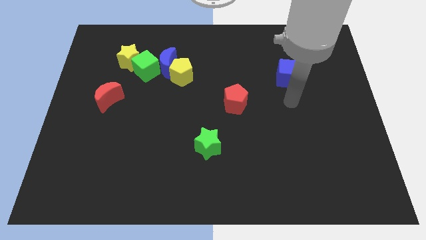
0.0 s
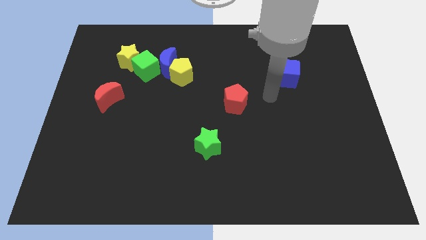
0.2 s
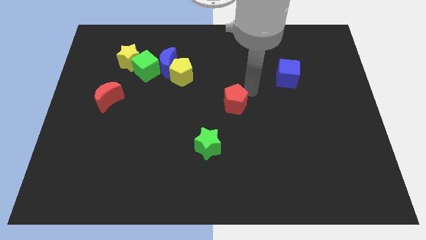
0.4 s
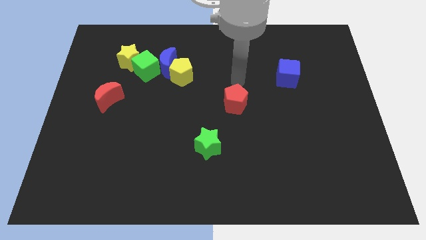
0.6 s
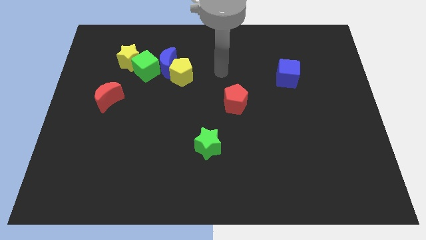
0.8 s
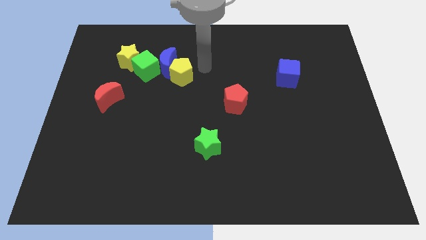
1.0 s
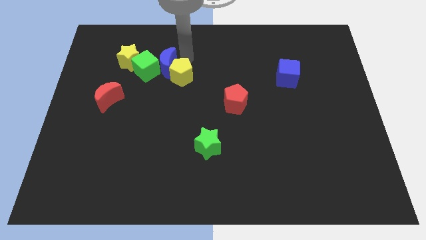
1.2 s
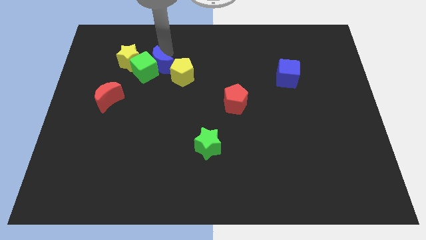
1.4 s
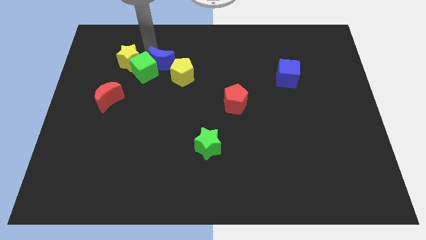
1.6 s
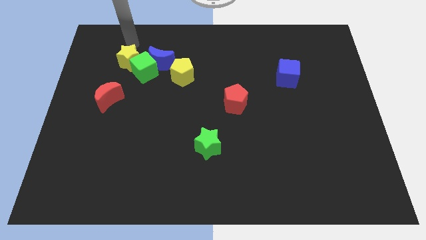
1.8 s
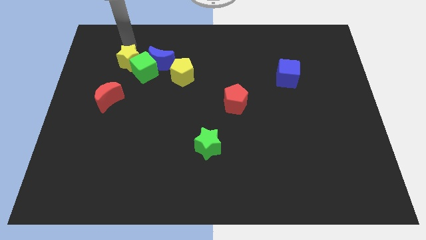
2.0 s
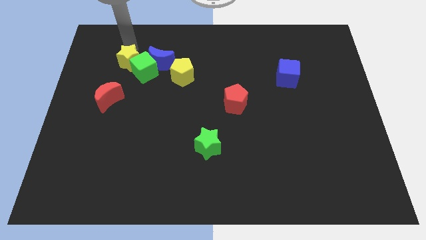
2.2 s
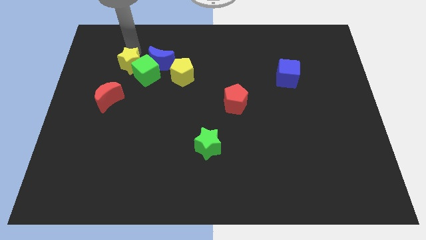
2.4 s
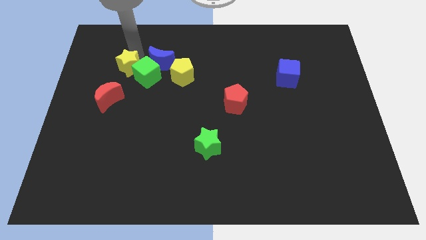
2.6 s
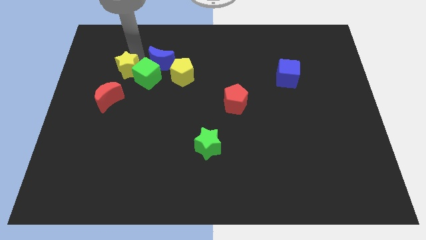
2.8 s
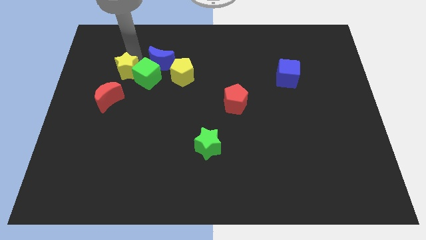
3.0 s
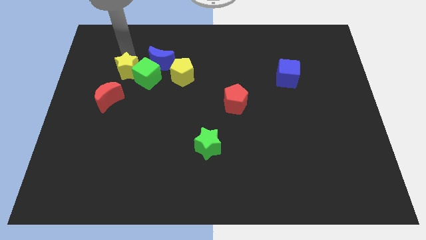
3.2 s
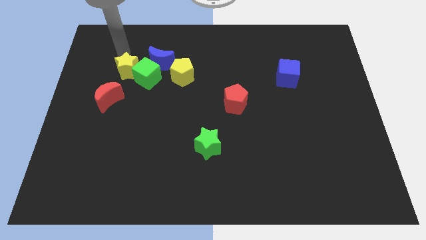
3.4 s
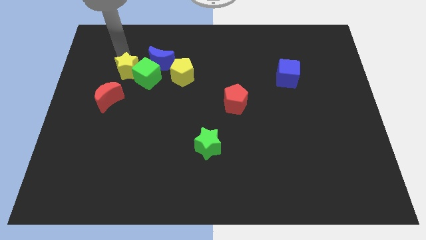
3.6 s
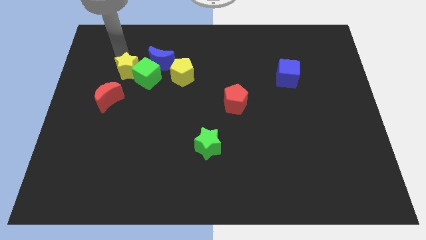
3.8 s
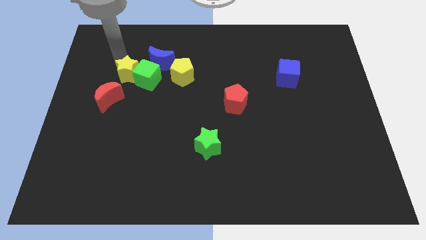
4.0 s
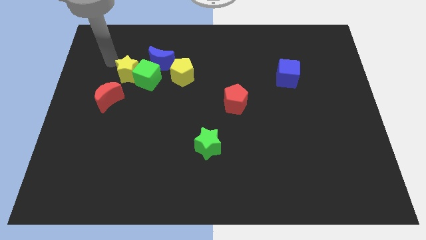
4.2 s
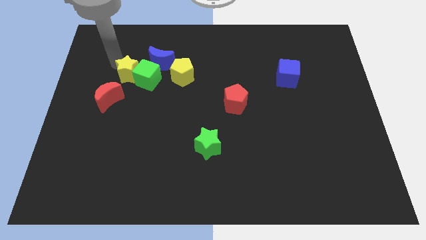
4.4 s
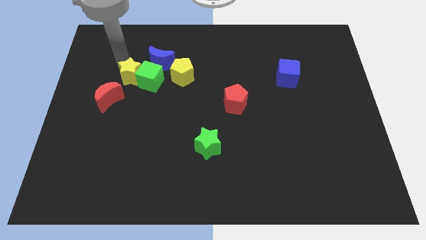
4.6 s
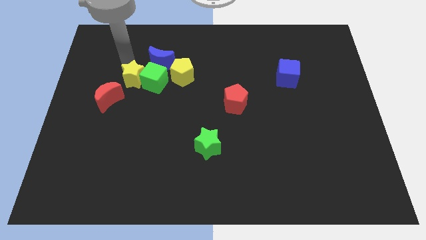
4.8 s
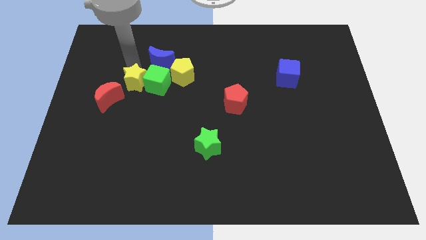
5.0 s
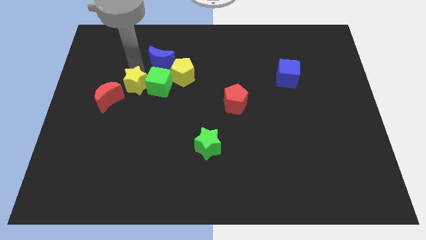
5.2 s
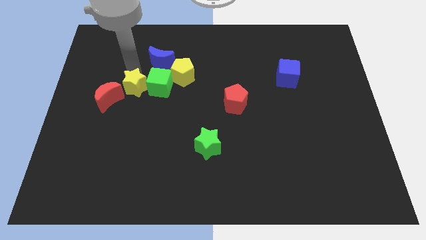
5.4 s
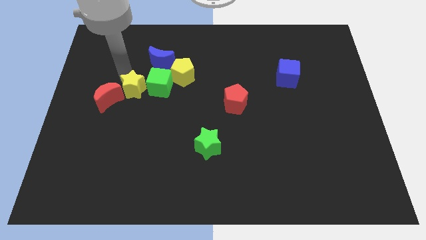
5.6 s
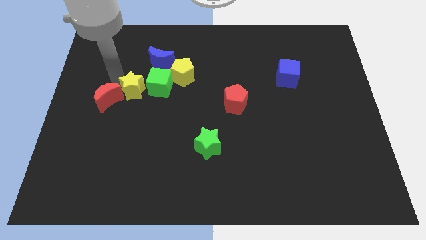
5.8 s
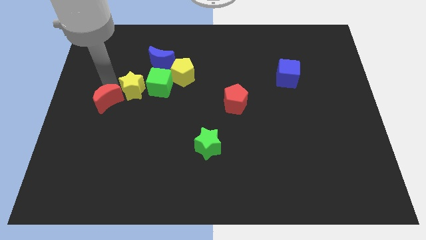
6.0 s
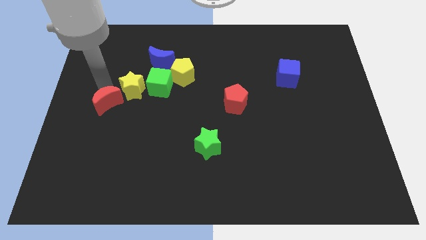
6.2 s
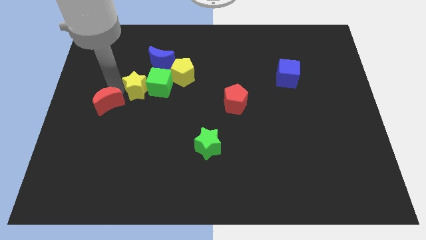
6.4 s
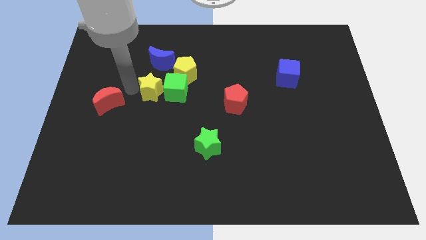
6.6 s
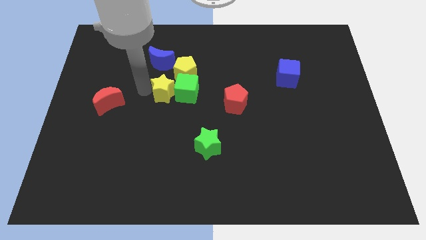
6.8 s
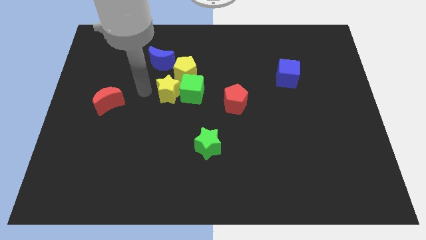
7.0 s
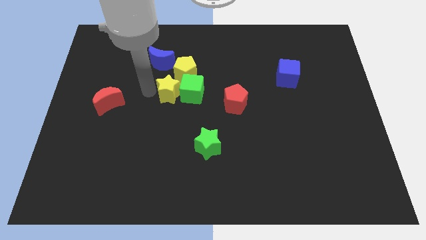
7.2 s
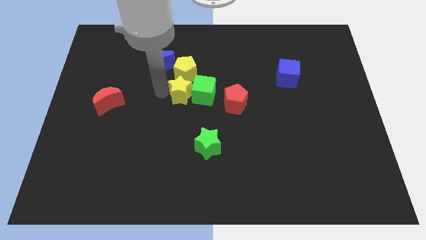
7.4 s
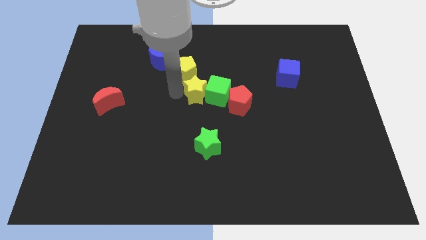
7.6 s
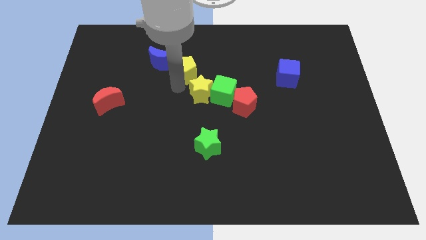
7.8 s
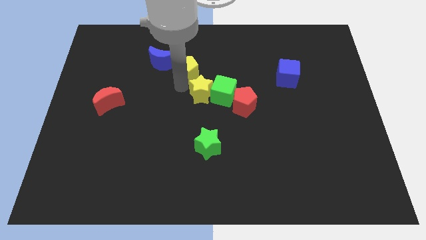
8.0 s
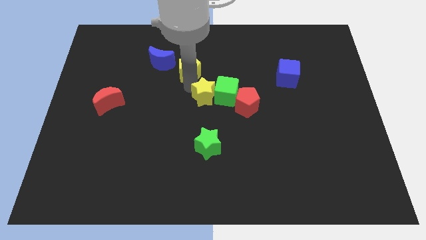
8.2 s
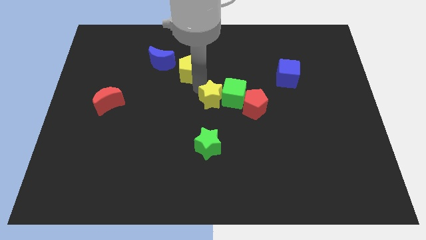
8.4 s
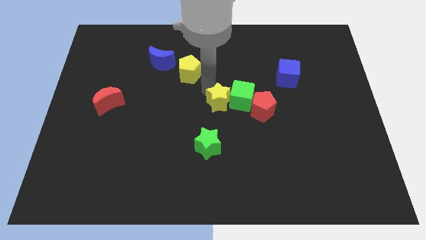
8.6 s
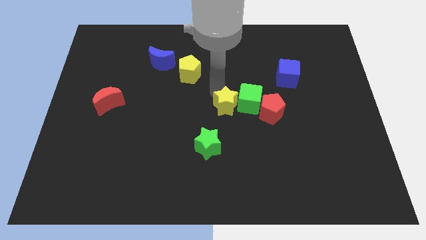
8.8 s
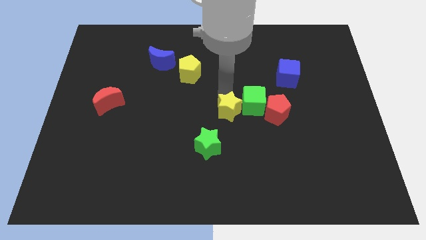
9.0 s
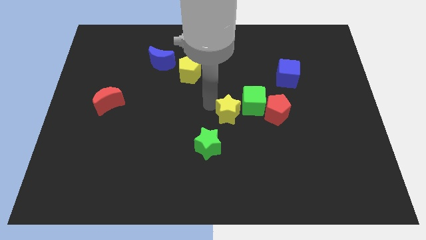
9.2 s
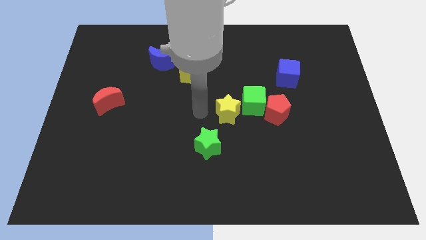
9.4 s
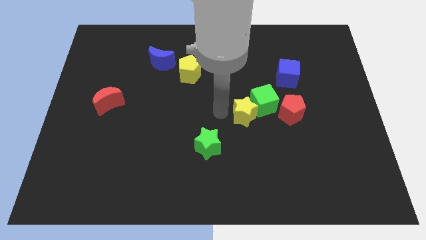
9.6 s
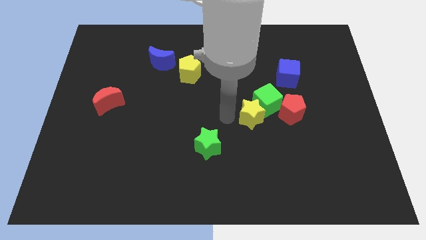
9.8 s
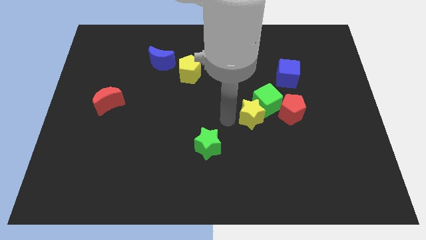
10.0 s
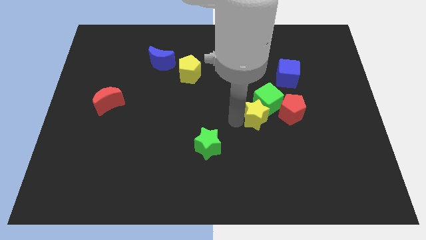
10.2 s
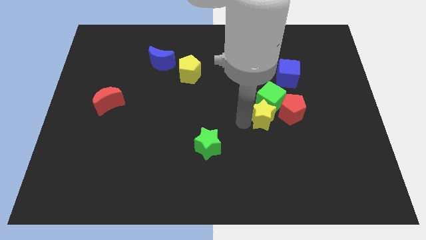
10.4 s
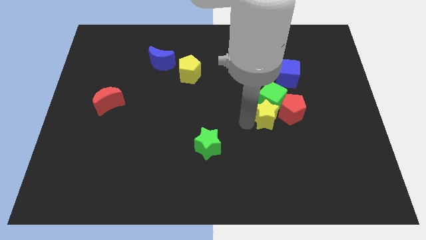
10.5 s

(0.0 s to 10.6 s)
move the yellow star next to the red pentagon

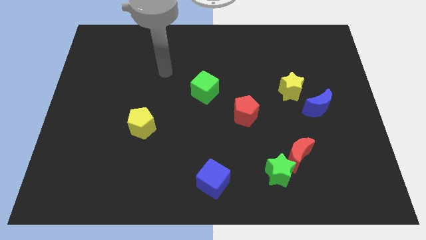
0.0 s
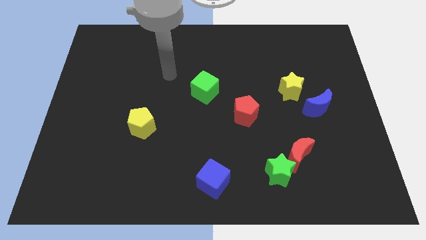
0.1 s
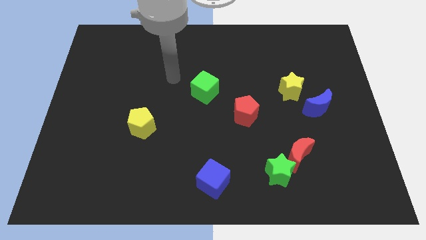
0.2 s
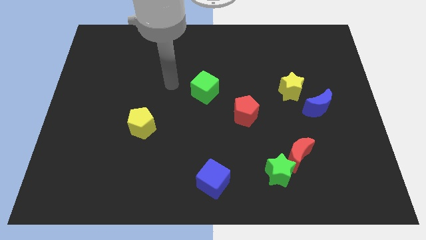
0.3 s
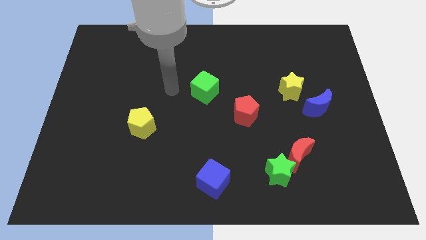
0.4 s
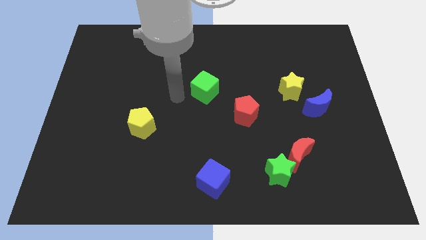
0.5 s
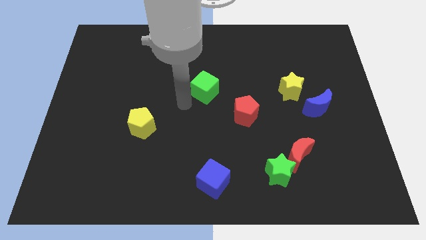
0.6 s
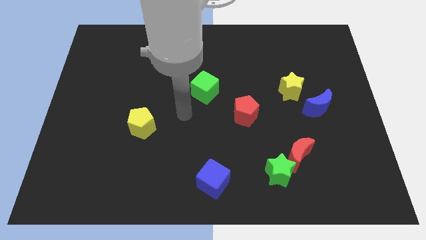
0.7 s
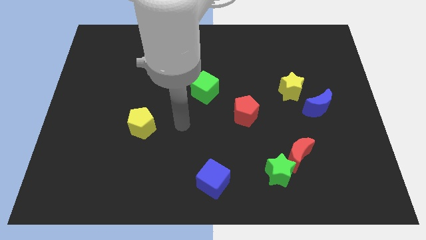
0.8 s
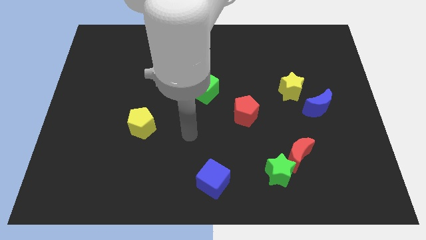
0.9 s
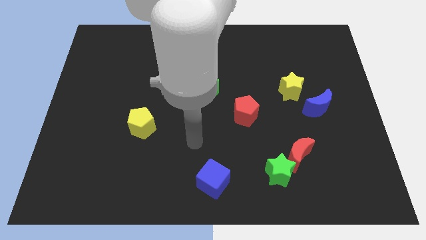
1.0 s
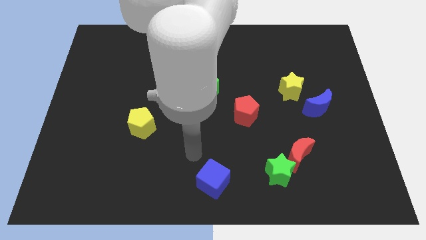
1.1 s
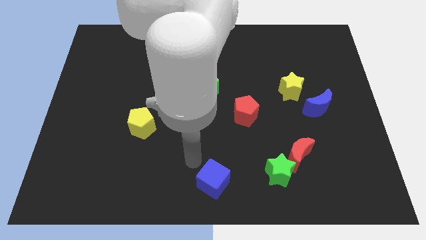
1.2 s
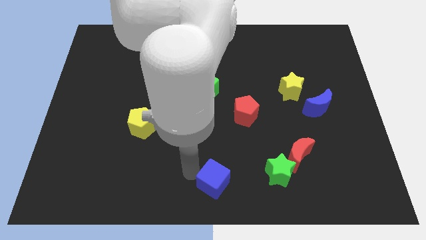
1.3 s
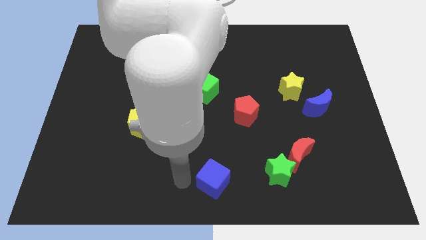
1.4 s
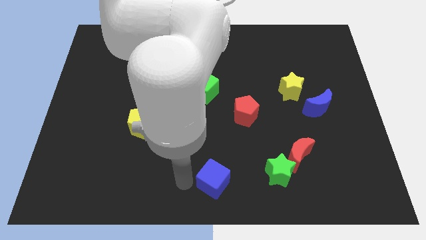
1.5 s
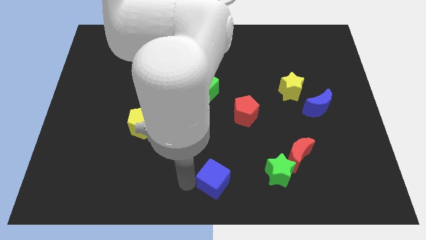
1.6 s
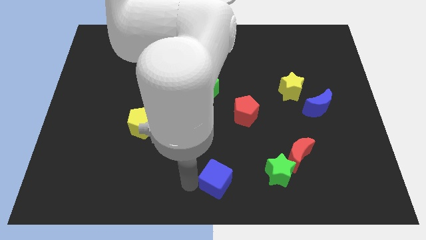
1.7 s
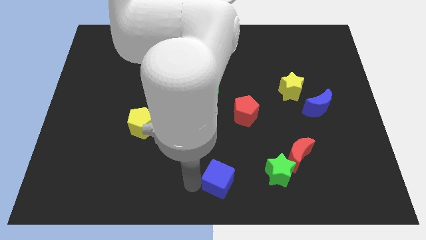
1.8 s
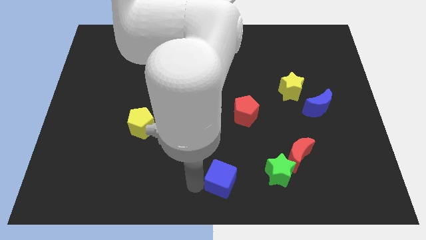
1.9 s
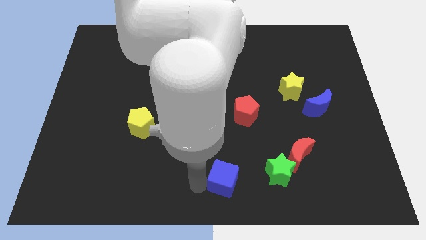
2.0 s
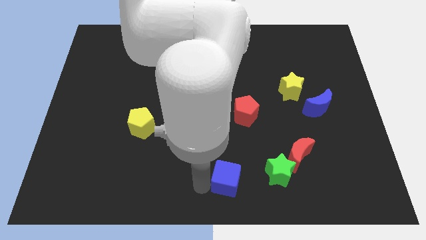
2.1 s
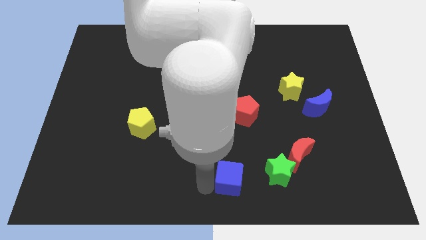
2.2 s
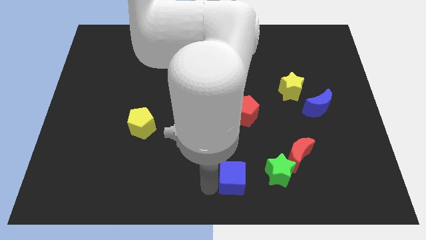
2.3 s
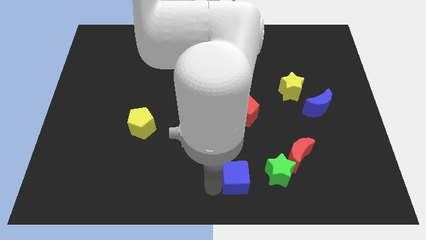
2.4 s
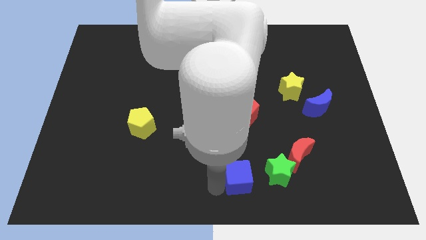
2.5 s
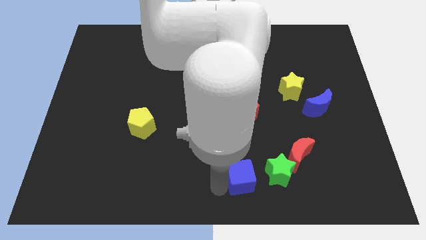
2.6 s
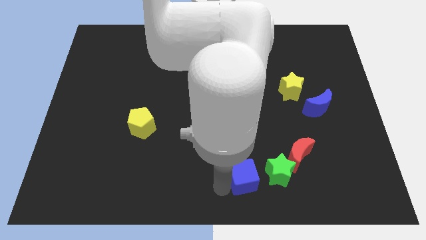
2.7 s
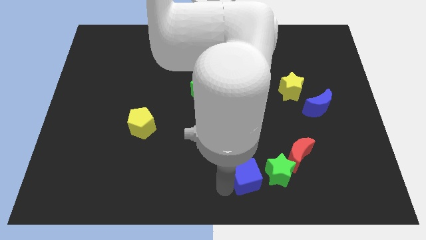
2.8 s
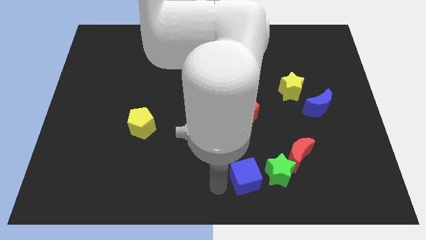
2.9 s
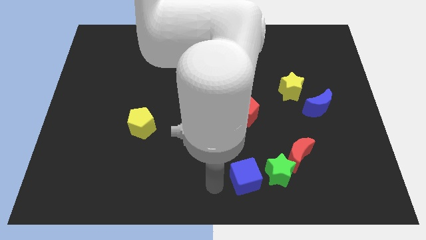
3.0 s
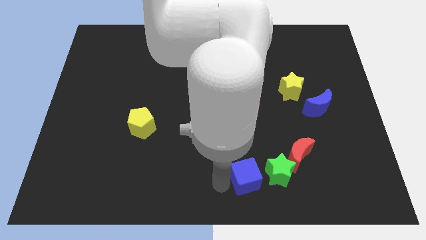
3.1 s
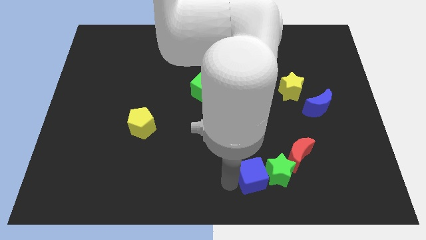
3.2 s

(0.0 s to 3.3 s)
slide the blue cube close to the green star
